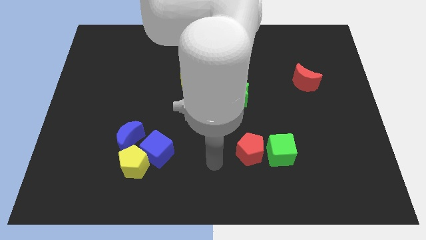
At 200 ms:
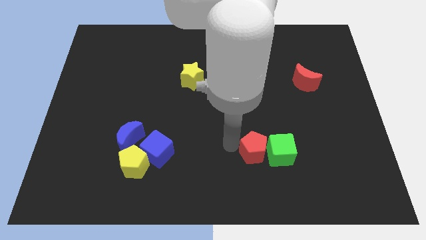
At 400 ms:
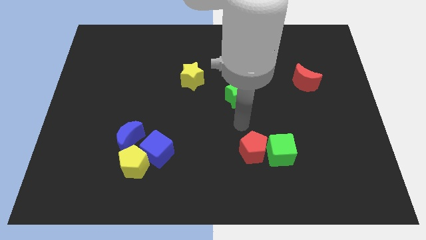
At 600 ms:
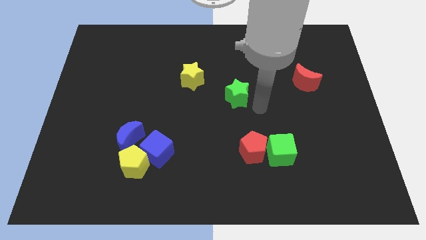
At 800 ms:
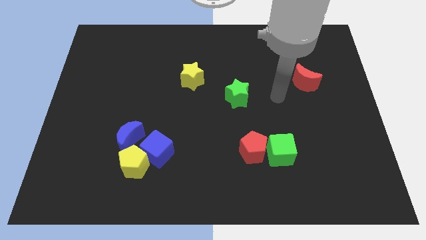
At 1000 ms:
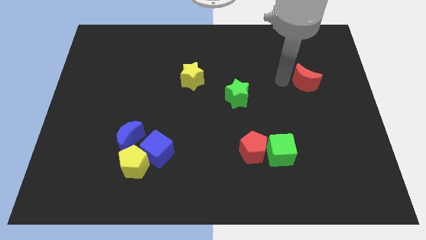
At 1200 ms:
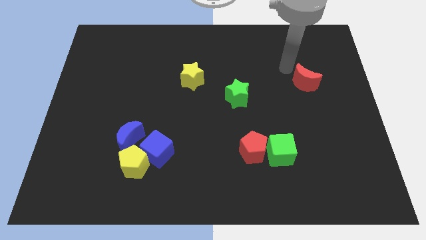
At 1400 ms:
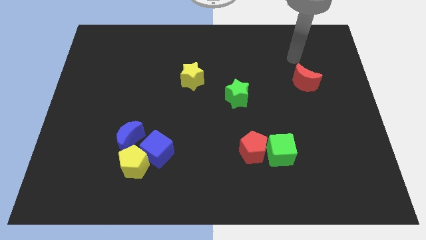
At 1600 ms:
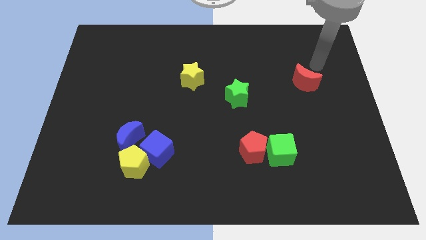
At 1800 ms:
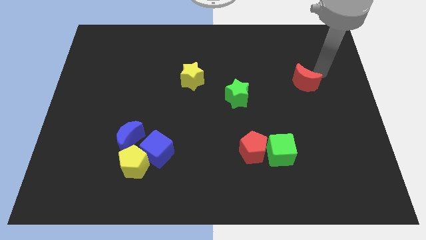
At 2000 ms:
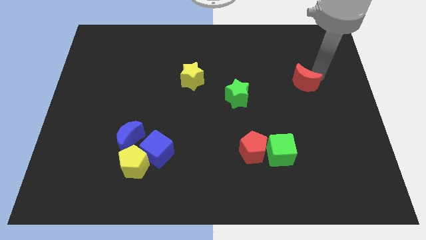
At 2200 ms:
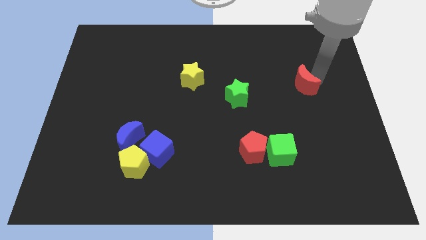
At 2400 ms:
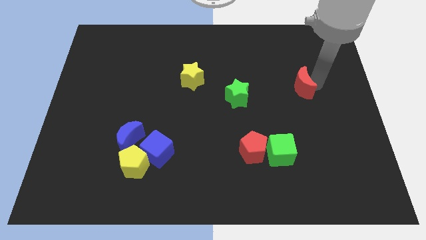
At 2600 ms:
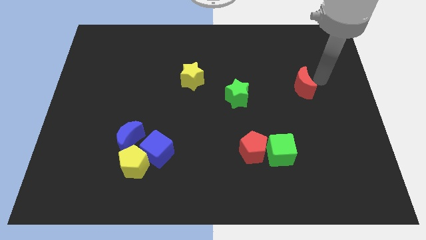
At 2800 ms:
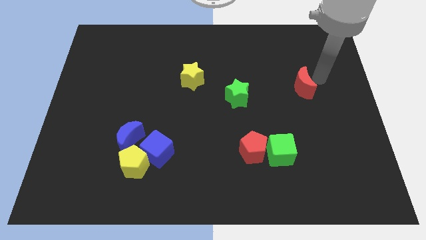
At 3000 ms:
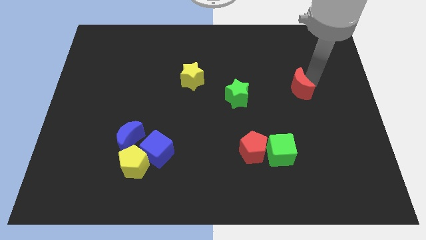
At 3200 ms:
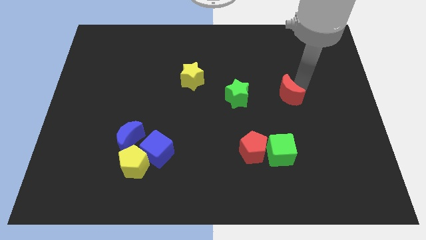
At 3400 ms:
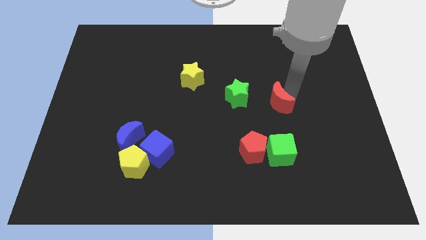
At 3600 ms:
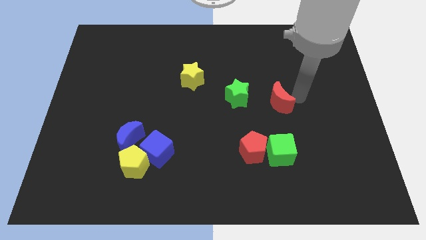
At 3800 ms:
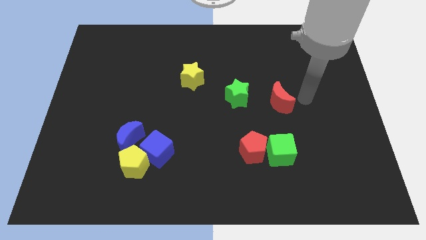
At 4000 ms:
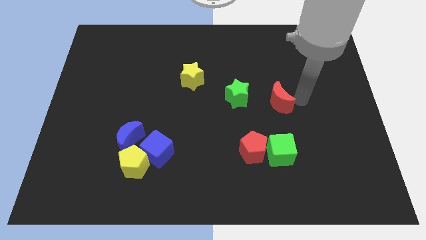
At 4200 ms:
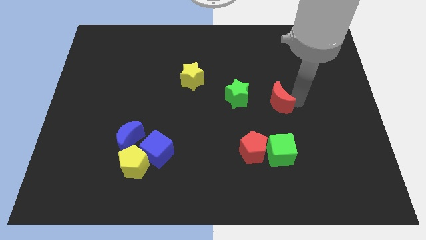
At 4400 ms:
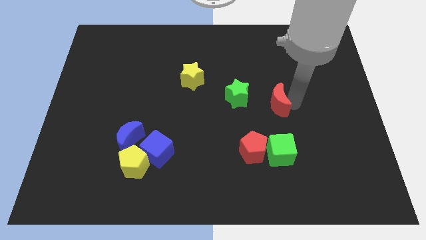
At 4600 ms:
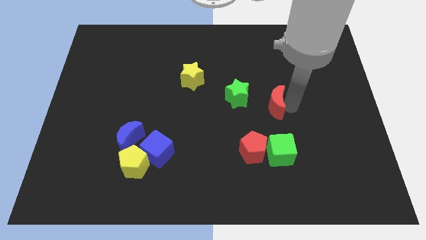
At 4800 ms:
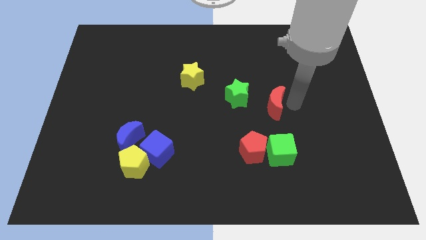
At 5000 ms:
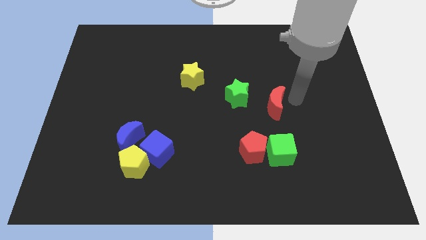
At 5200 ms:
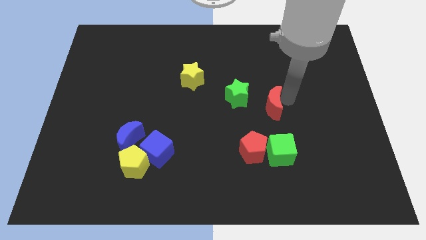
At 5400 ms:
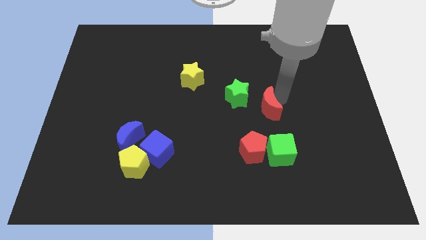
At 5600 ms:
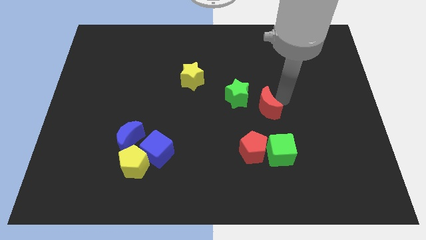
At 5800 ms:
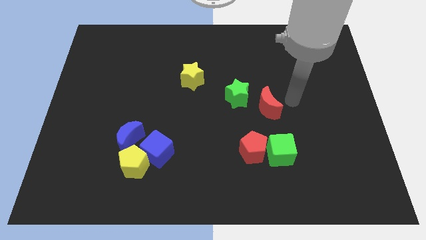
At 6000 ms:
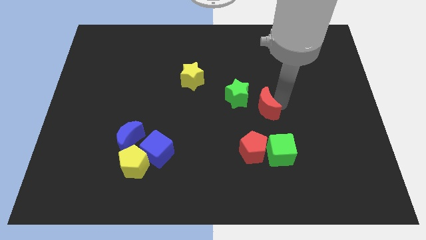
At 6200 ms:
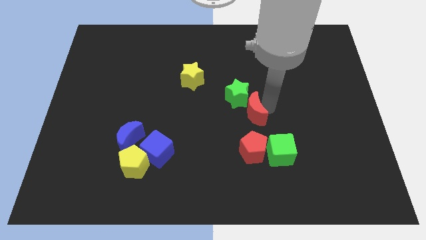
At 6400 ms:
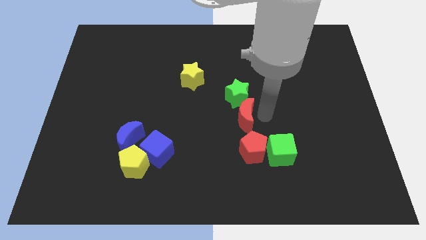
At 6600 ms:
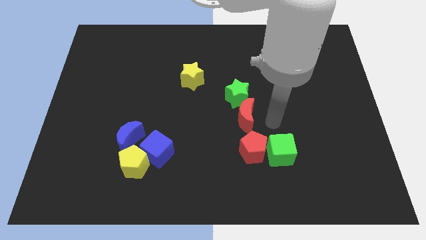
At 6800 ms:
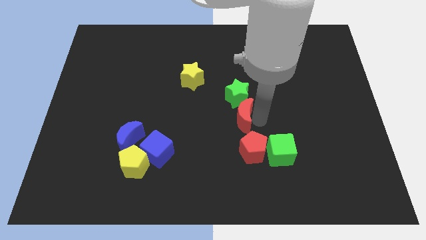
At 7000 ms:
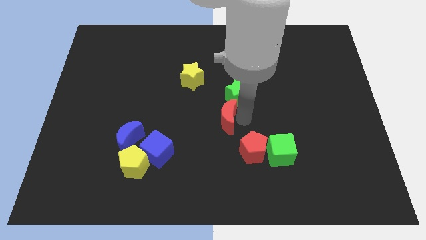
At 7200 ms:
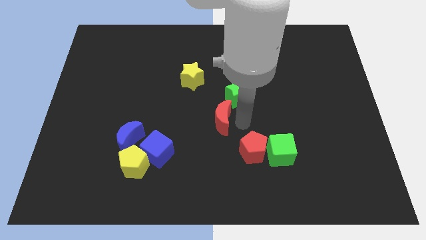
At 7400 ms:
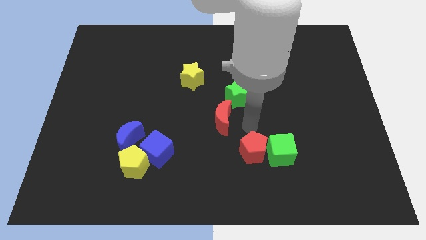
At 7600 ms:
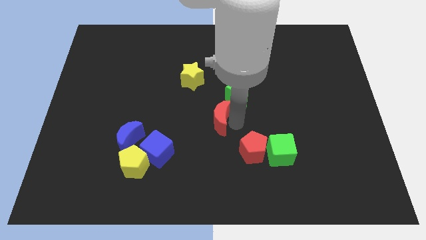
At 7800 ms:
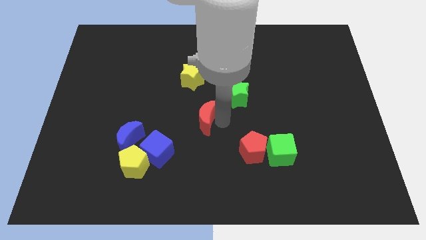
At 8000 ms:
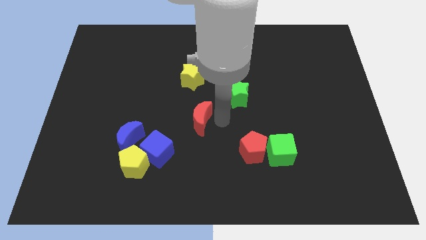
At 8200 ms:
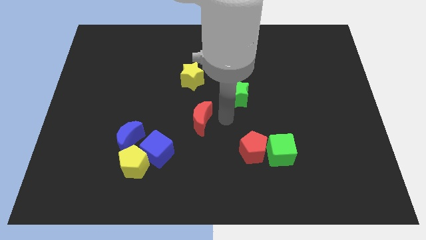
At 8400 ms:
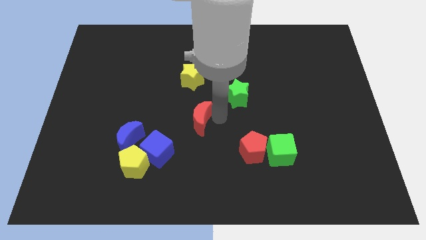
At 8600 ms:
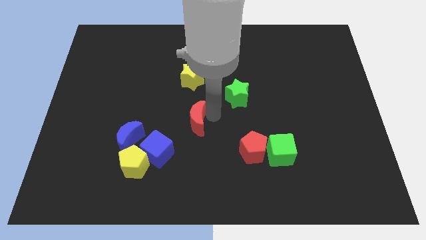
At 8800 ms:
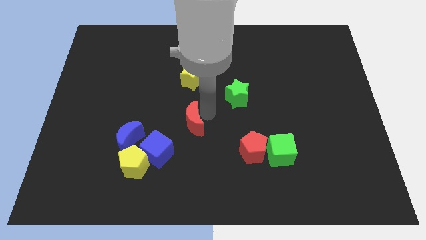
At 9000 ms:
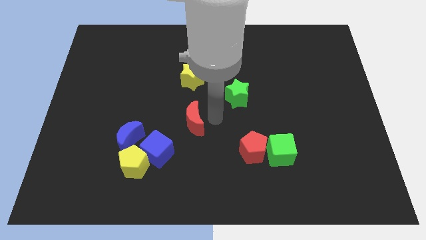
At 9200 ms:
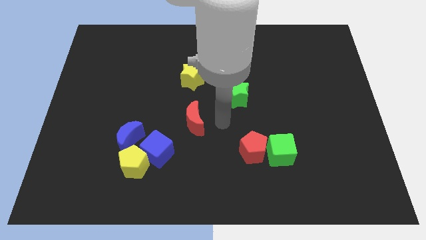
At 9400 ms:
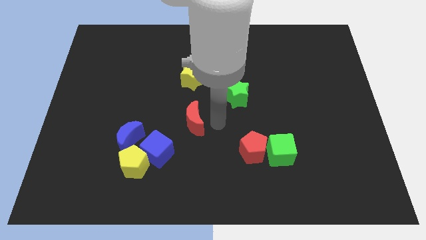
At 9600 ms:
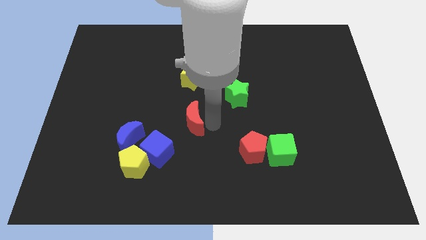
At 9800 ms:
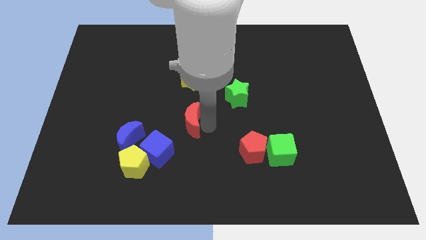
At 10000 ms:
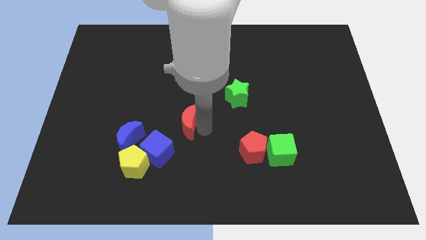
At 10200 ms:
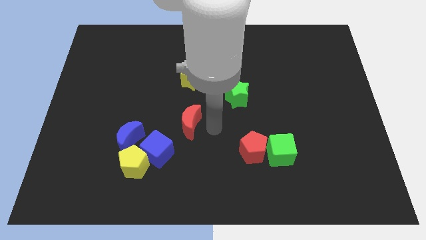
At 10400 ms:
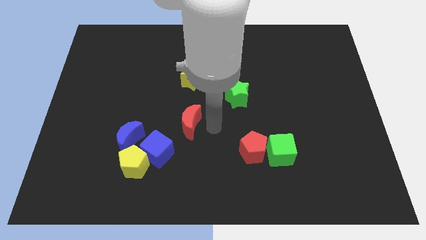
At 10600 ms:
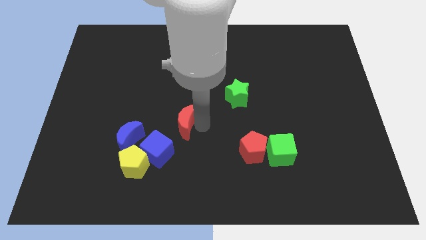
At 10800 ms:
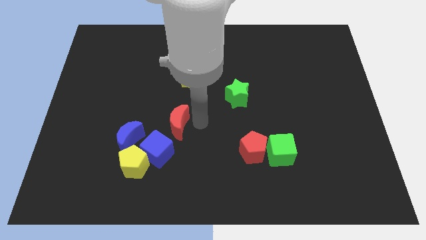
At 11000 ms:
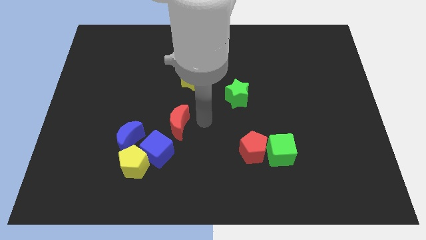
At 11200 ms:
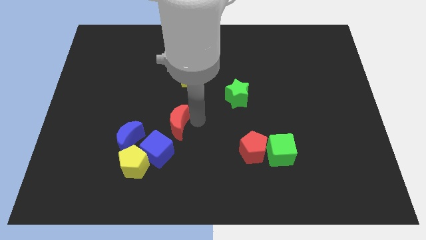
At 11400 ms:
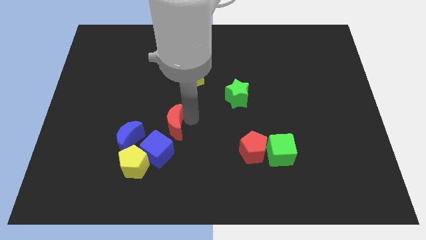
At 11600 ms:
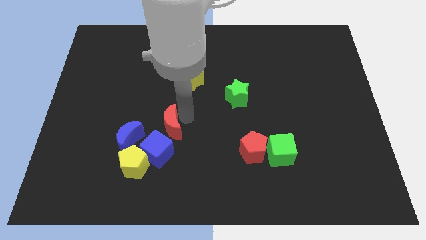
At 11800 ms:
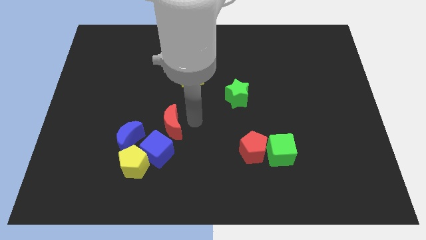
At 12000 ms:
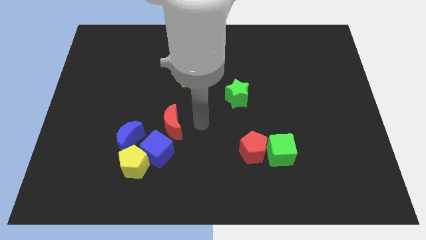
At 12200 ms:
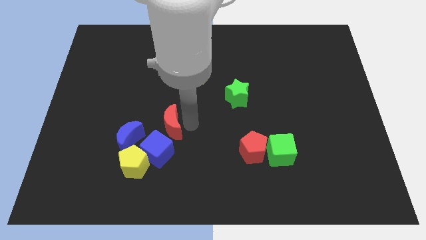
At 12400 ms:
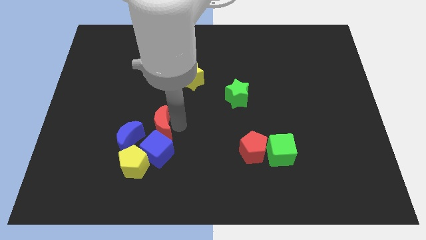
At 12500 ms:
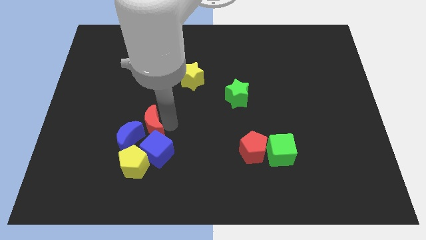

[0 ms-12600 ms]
push the red moon next to the blue moon

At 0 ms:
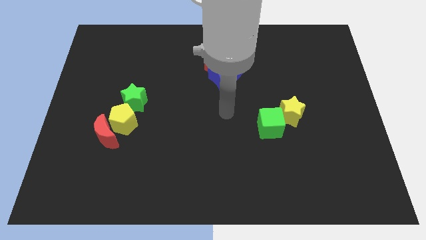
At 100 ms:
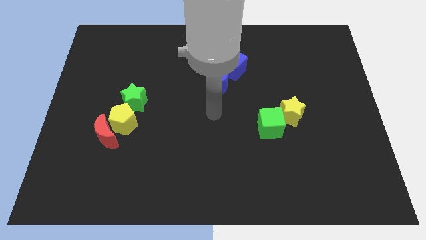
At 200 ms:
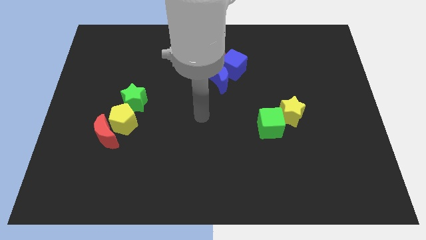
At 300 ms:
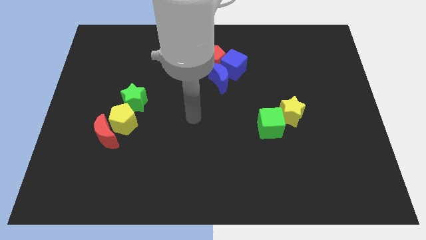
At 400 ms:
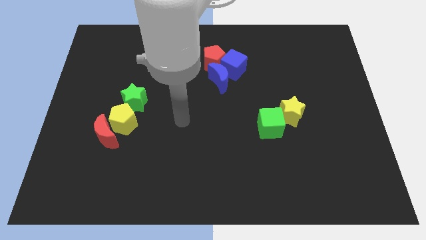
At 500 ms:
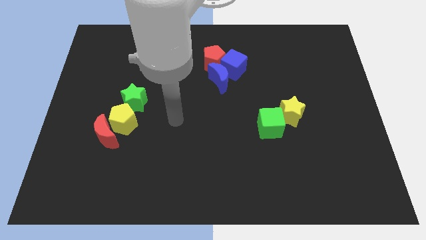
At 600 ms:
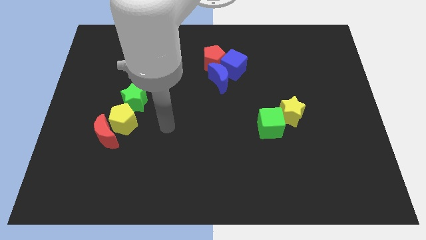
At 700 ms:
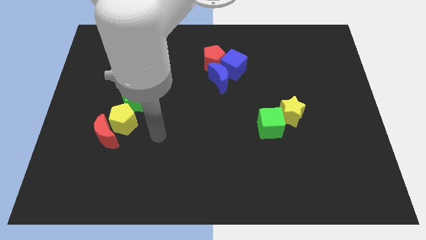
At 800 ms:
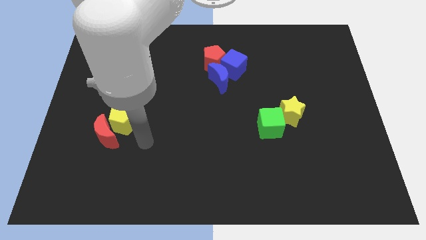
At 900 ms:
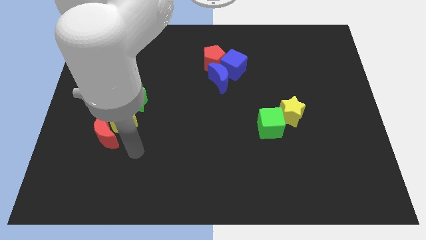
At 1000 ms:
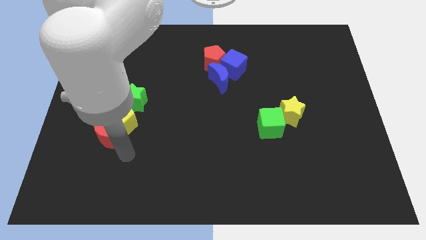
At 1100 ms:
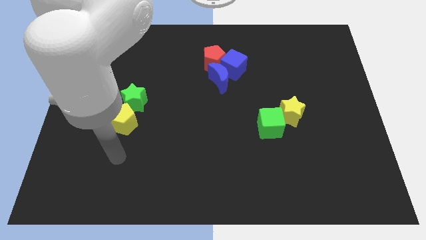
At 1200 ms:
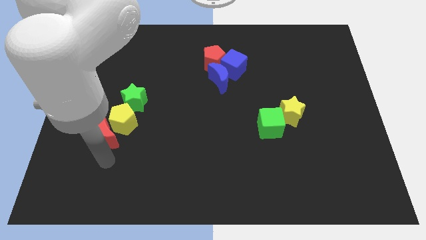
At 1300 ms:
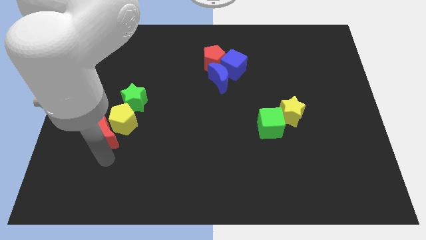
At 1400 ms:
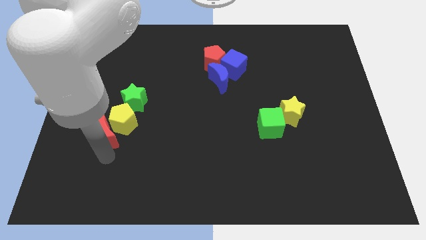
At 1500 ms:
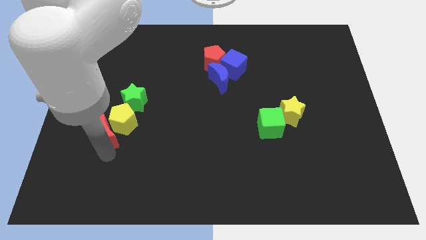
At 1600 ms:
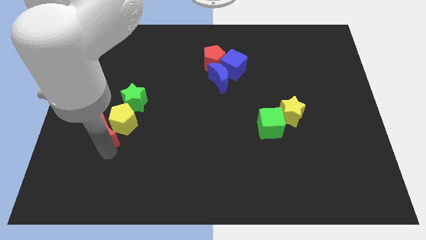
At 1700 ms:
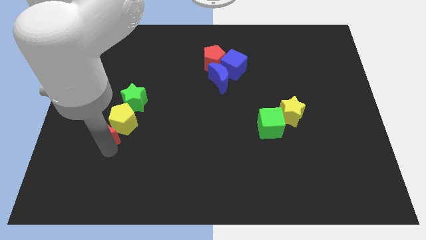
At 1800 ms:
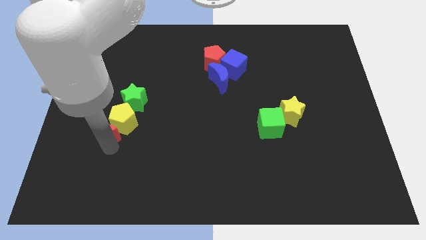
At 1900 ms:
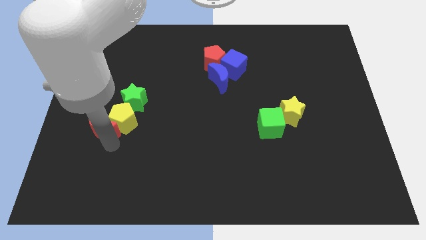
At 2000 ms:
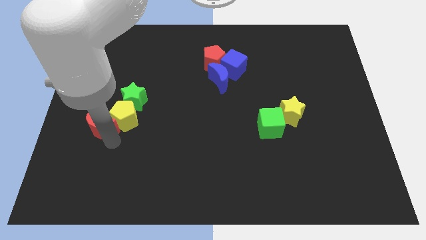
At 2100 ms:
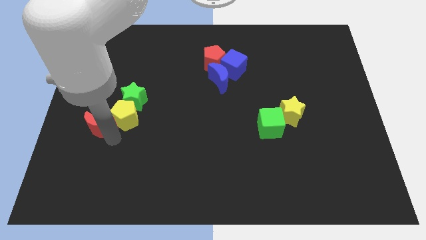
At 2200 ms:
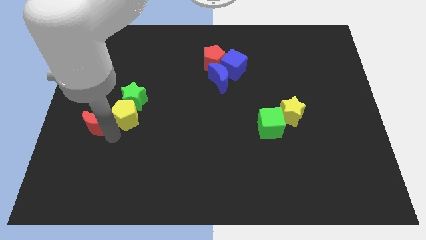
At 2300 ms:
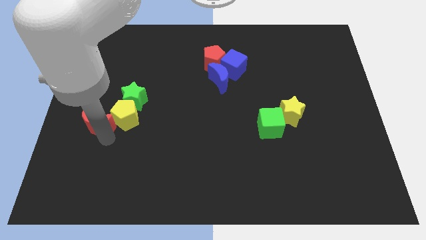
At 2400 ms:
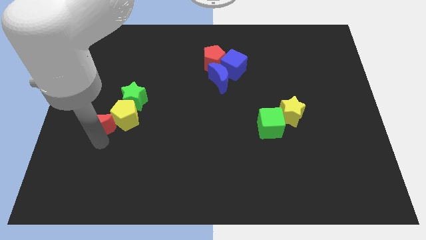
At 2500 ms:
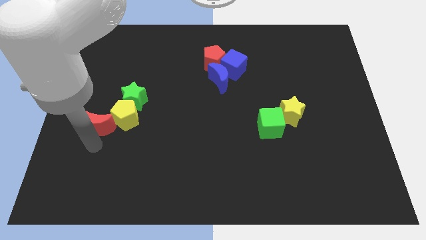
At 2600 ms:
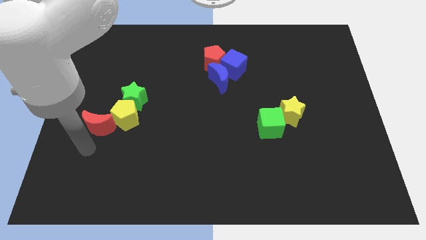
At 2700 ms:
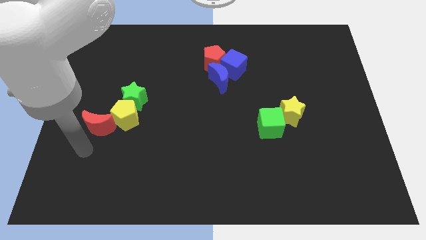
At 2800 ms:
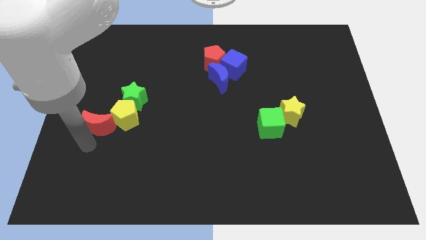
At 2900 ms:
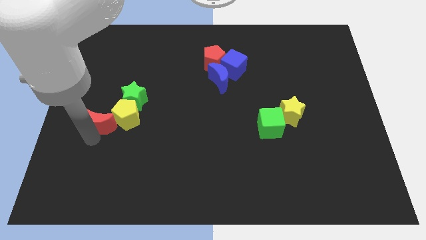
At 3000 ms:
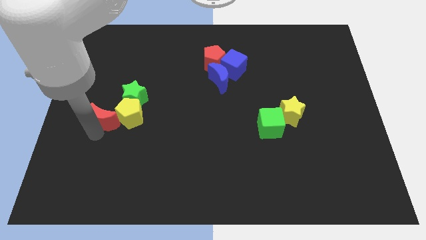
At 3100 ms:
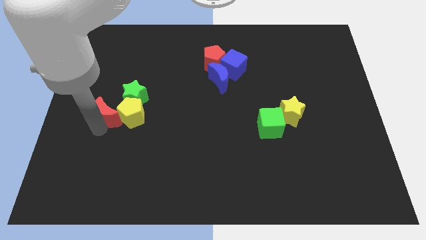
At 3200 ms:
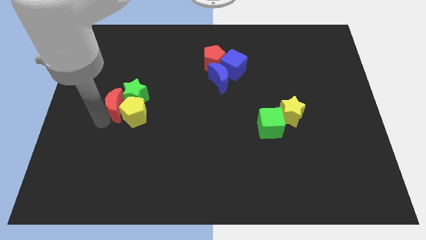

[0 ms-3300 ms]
push the red moon close to the green star
